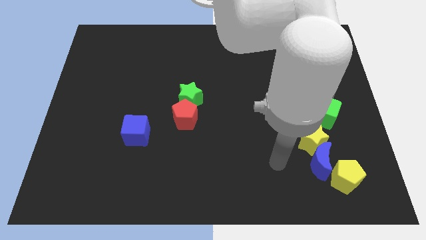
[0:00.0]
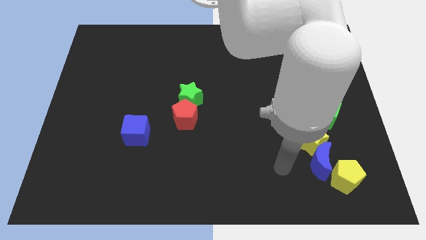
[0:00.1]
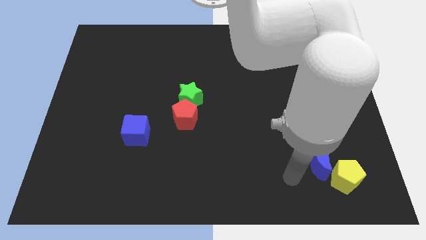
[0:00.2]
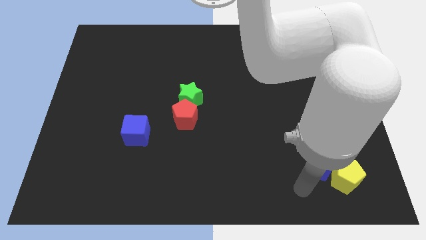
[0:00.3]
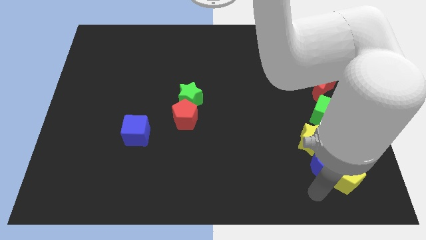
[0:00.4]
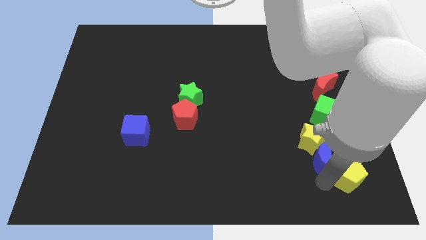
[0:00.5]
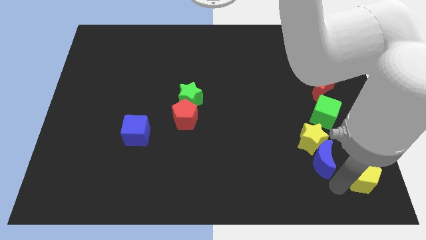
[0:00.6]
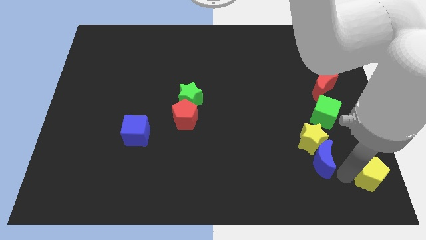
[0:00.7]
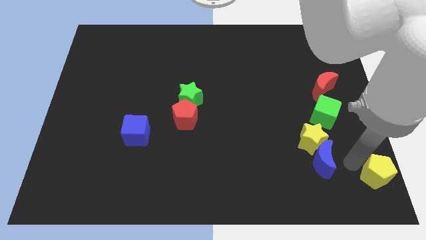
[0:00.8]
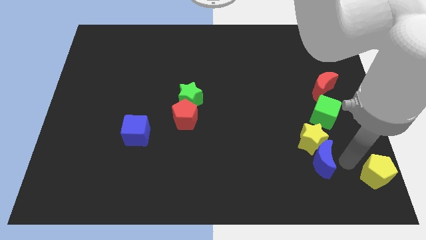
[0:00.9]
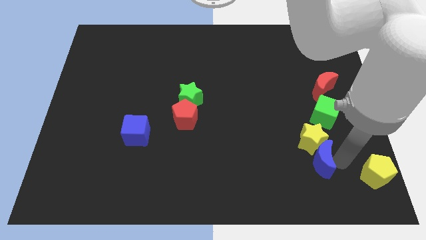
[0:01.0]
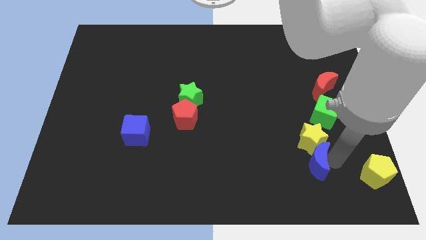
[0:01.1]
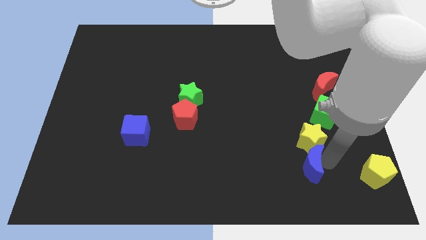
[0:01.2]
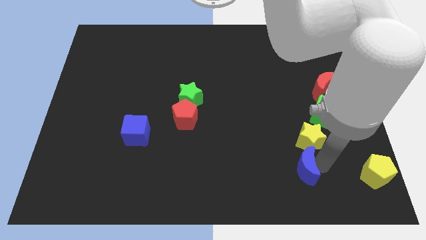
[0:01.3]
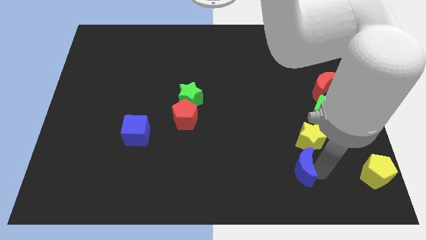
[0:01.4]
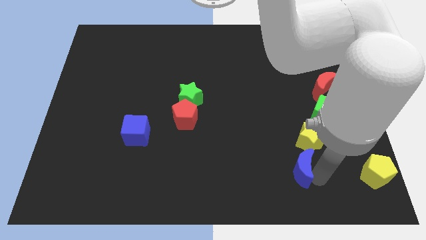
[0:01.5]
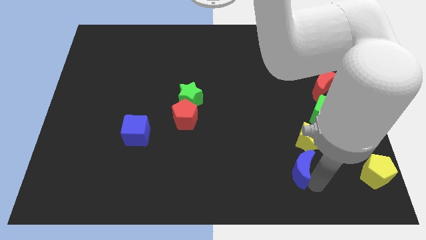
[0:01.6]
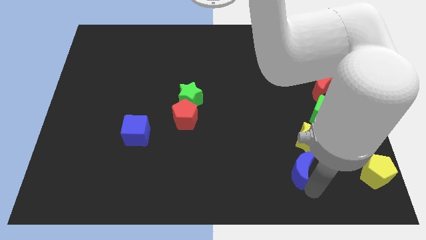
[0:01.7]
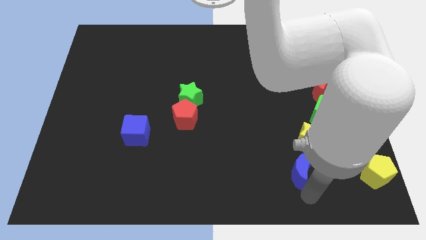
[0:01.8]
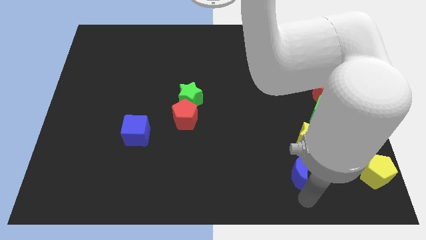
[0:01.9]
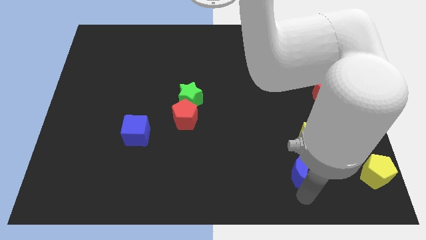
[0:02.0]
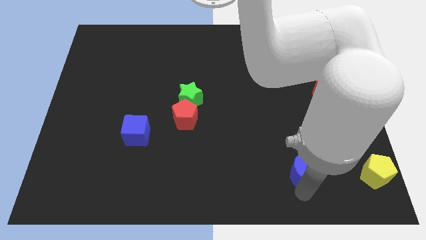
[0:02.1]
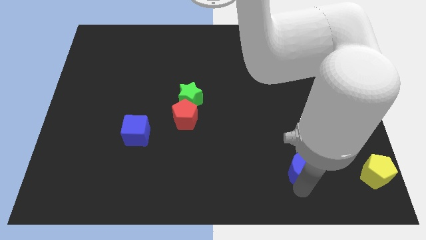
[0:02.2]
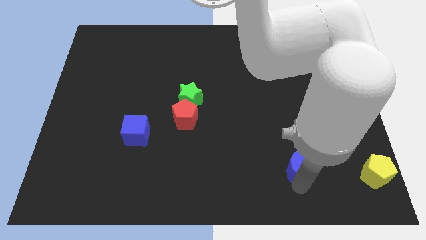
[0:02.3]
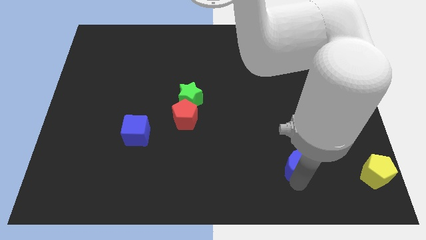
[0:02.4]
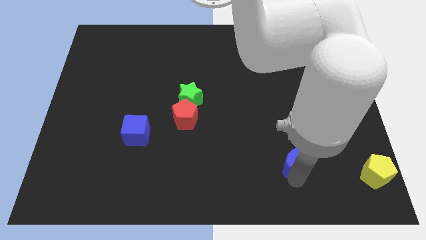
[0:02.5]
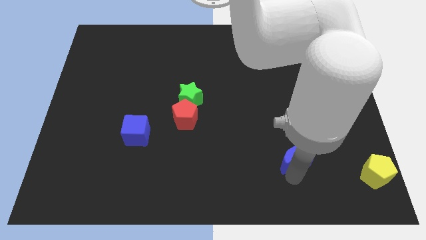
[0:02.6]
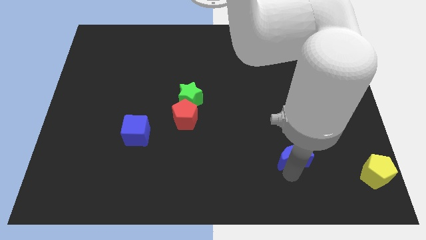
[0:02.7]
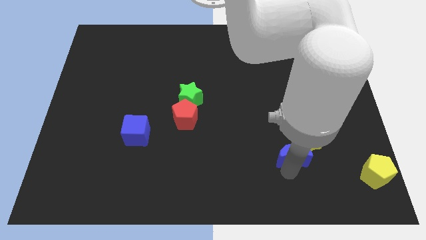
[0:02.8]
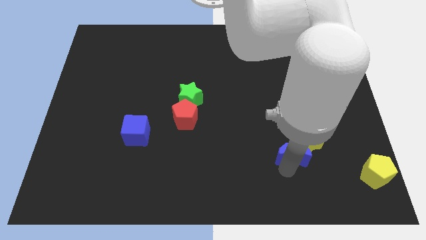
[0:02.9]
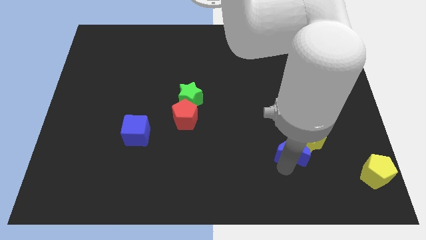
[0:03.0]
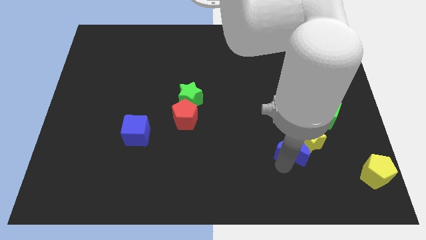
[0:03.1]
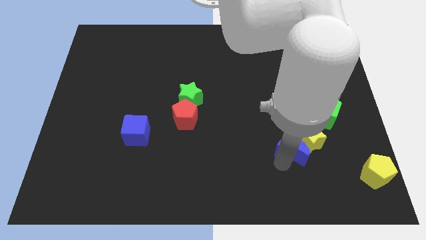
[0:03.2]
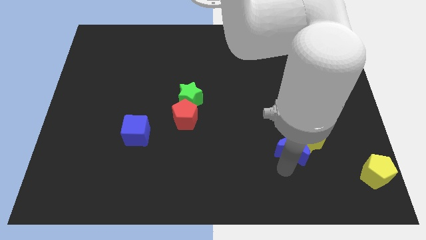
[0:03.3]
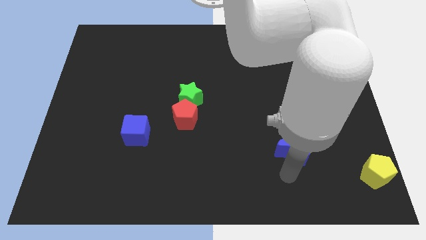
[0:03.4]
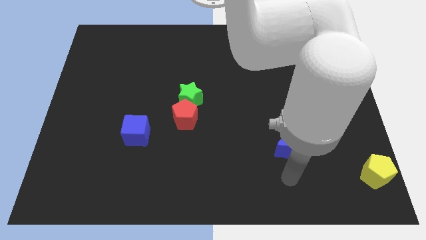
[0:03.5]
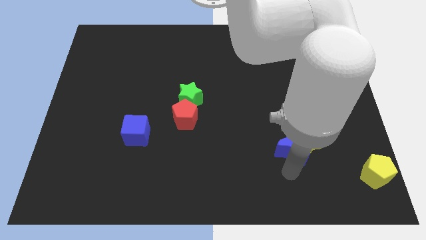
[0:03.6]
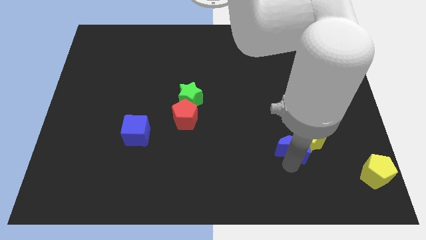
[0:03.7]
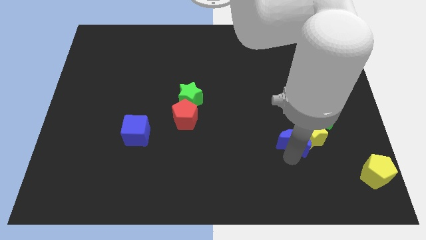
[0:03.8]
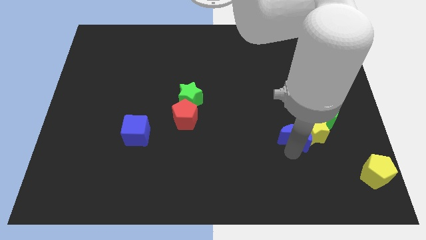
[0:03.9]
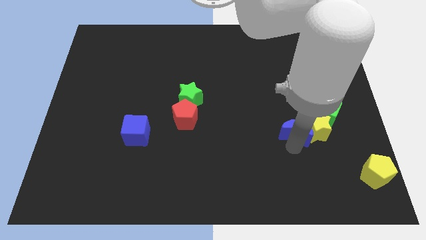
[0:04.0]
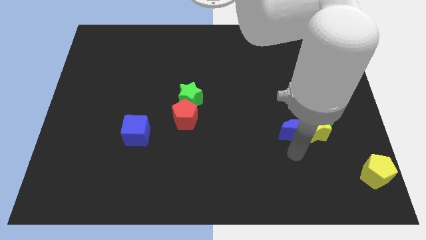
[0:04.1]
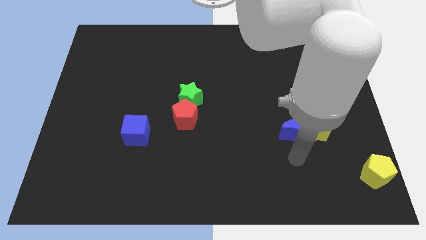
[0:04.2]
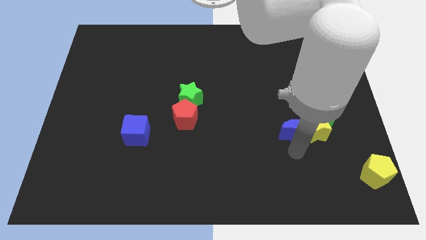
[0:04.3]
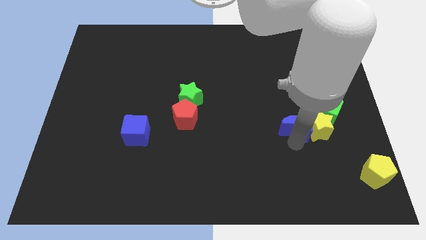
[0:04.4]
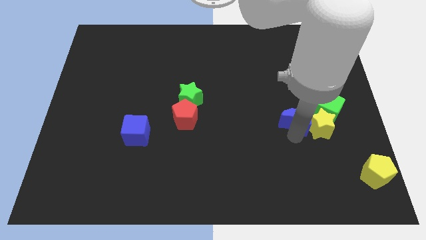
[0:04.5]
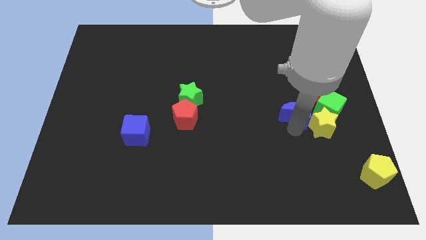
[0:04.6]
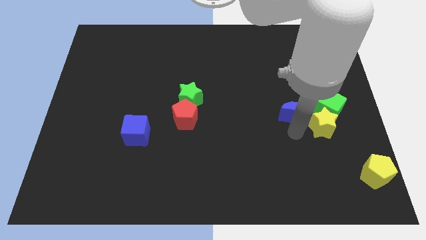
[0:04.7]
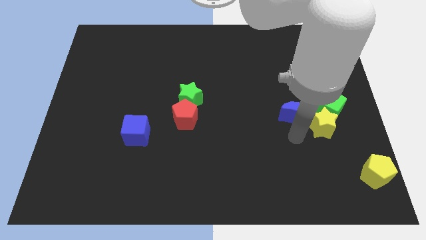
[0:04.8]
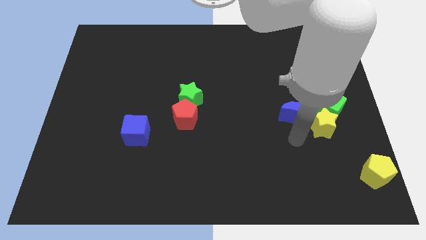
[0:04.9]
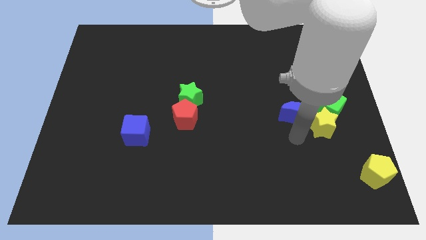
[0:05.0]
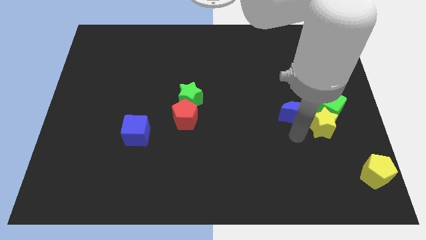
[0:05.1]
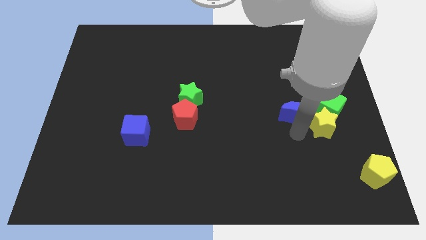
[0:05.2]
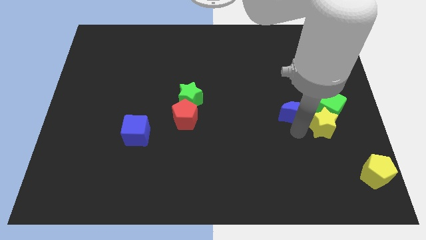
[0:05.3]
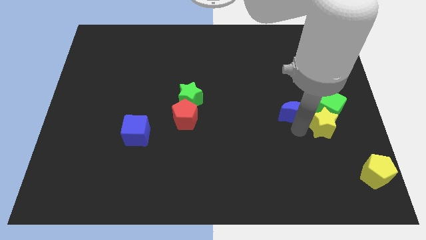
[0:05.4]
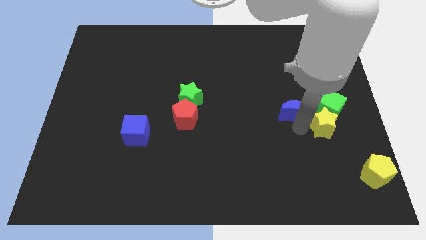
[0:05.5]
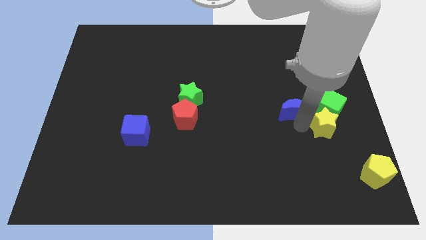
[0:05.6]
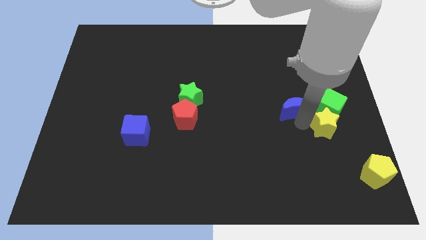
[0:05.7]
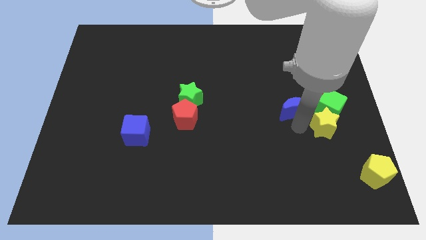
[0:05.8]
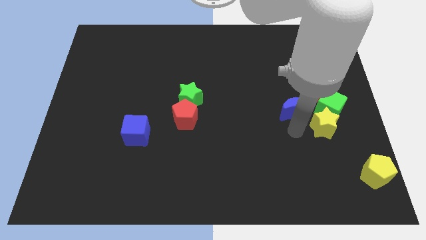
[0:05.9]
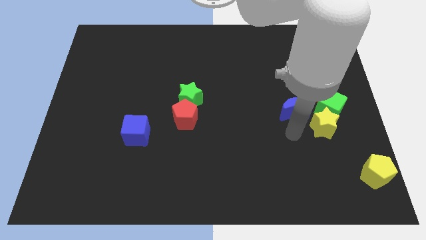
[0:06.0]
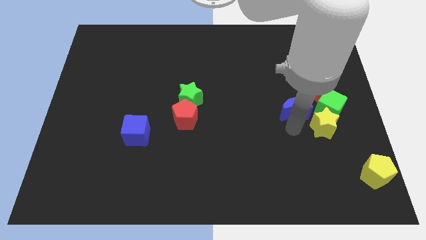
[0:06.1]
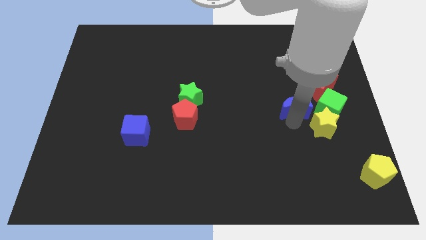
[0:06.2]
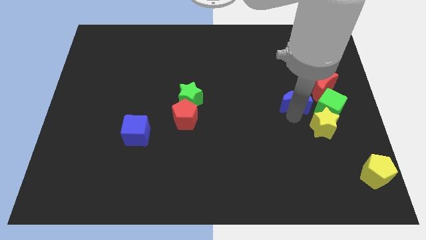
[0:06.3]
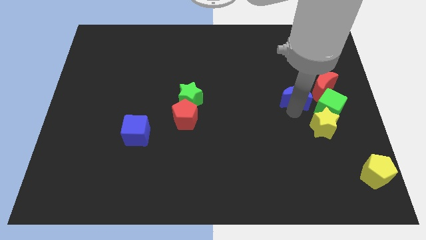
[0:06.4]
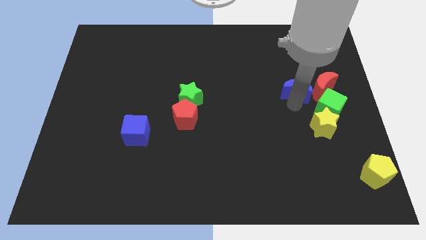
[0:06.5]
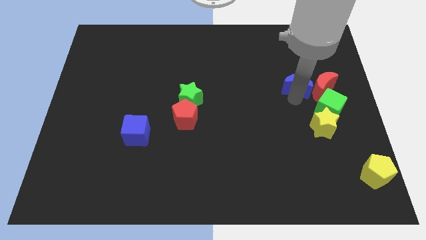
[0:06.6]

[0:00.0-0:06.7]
put the blue moon diagonally up and to the left of the red moon
